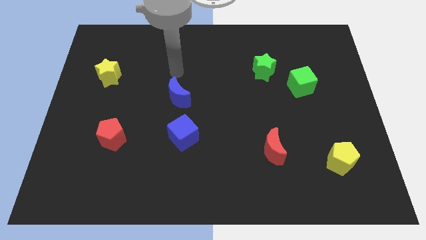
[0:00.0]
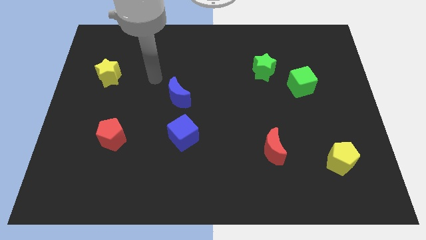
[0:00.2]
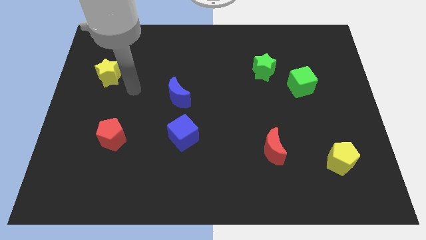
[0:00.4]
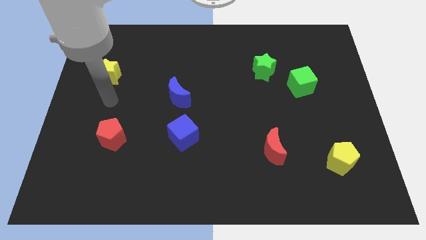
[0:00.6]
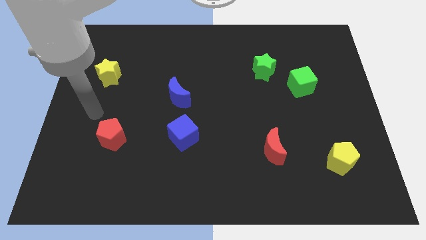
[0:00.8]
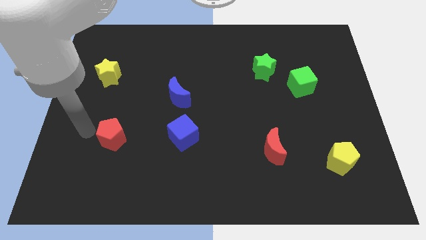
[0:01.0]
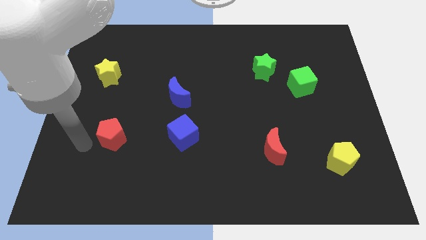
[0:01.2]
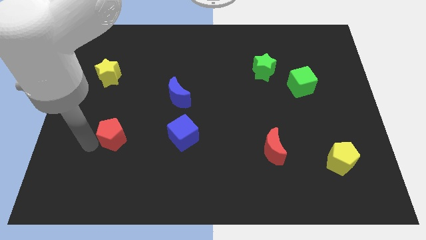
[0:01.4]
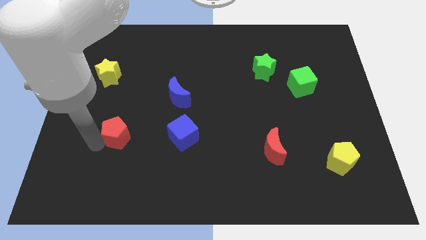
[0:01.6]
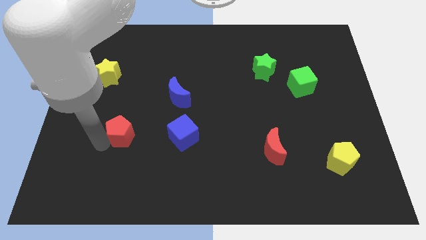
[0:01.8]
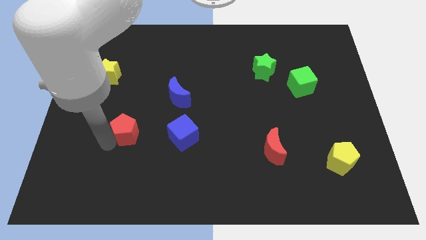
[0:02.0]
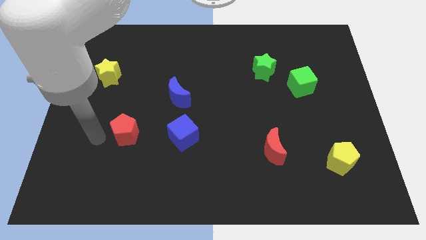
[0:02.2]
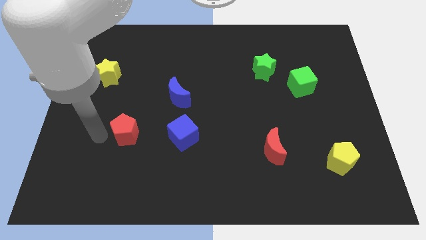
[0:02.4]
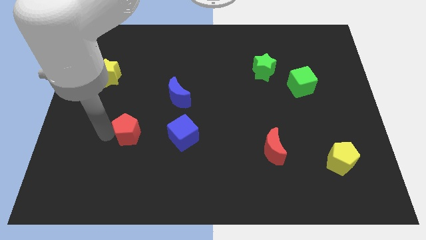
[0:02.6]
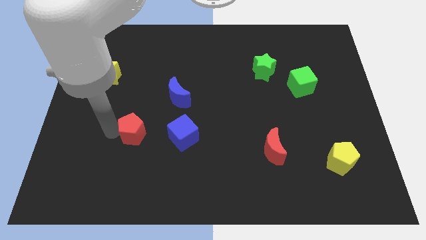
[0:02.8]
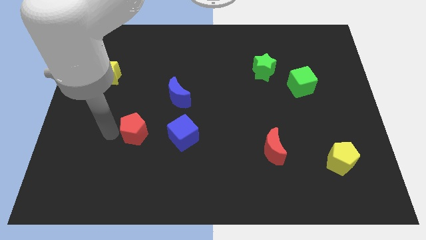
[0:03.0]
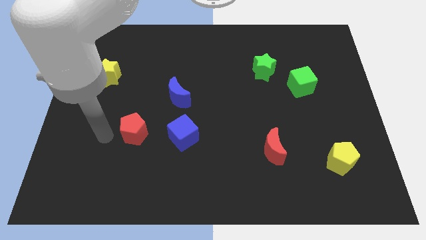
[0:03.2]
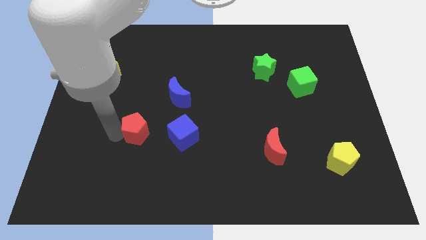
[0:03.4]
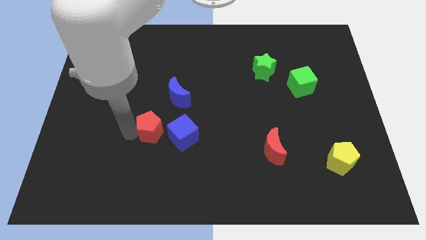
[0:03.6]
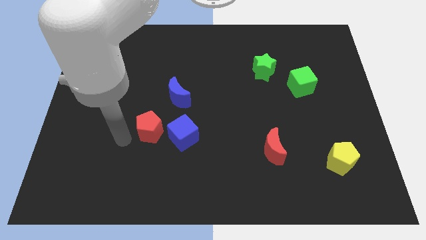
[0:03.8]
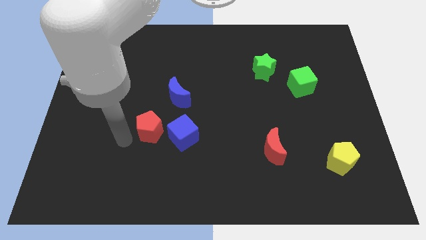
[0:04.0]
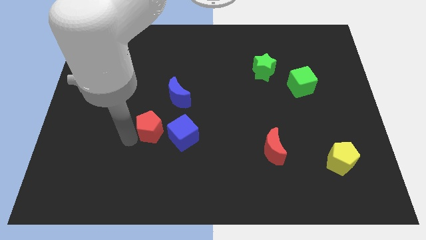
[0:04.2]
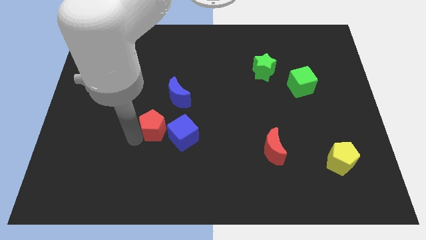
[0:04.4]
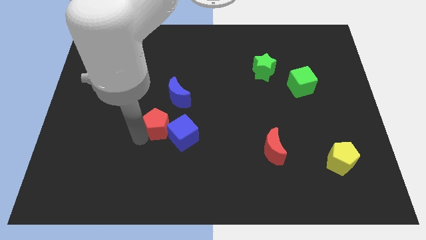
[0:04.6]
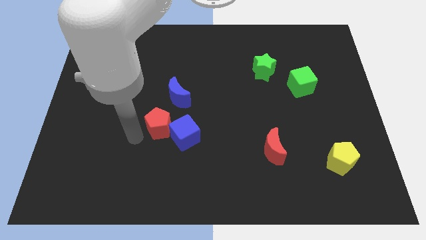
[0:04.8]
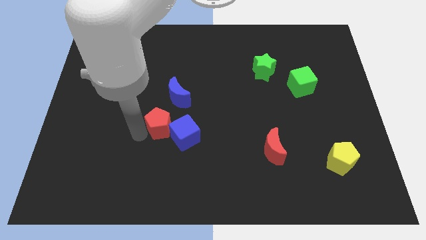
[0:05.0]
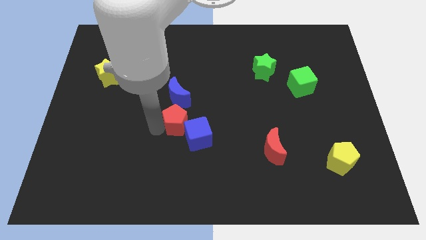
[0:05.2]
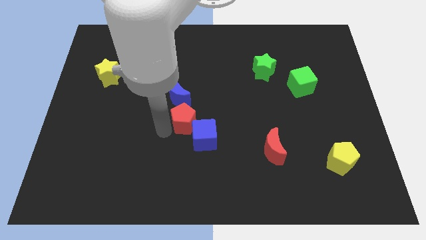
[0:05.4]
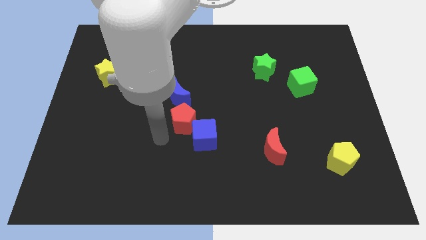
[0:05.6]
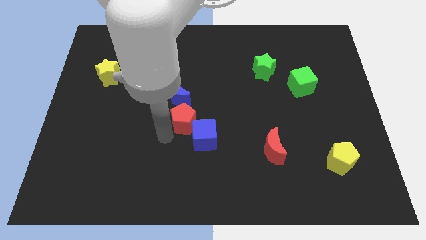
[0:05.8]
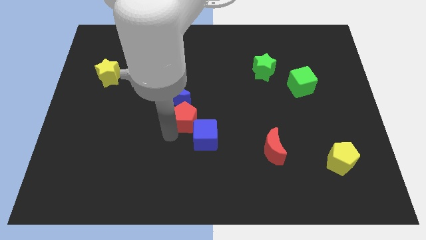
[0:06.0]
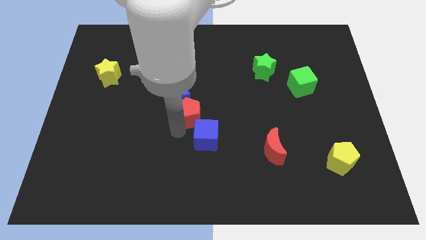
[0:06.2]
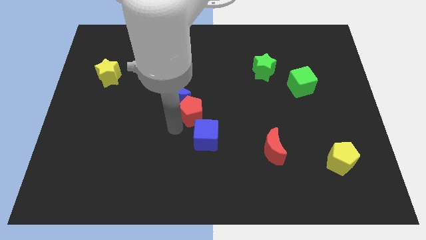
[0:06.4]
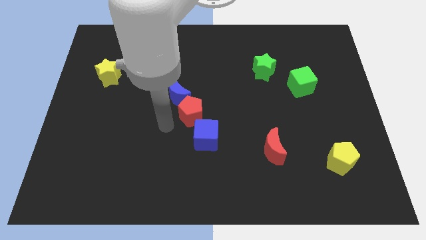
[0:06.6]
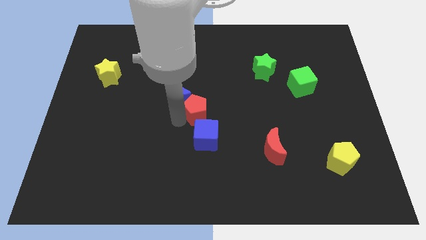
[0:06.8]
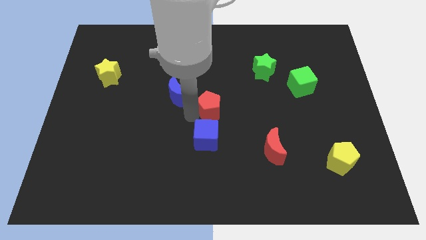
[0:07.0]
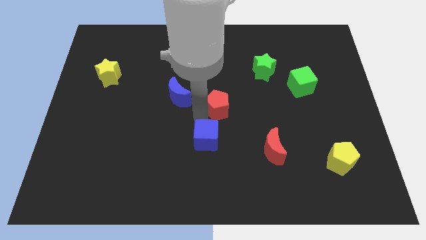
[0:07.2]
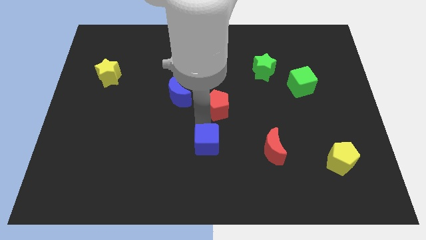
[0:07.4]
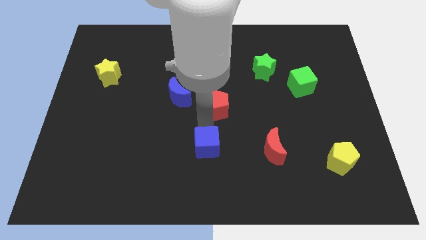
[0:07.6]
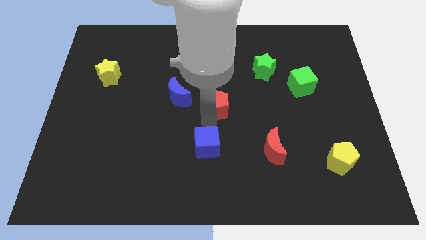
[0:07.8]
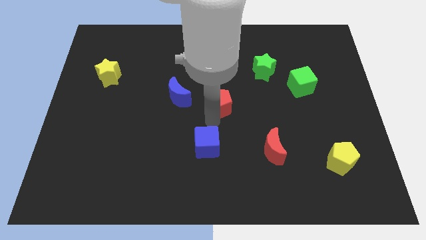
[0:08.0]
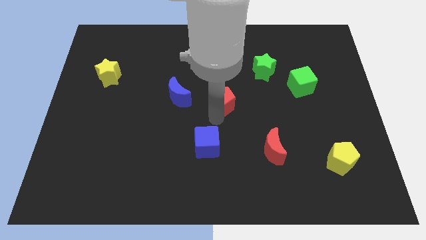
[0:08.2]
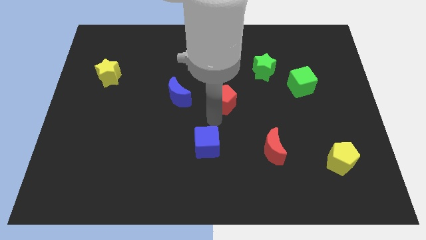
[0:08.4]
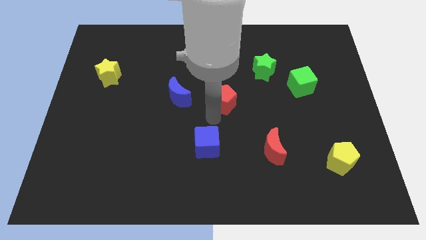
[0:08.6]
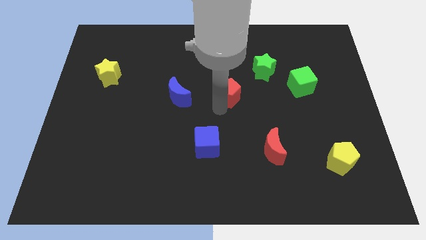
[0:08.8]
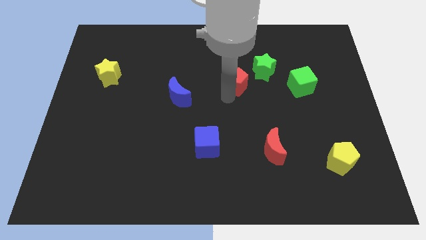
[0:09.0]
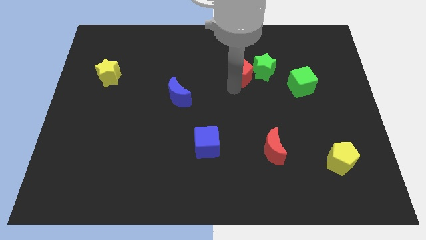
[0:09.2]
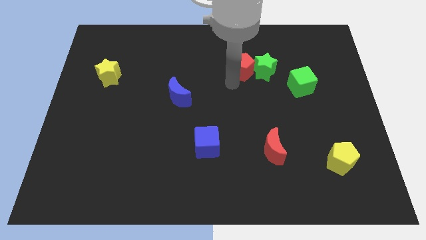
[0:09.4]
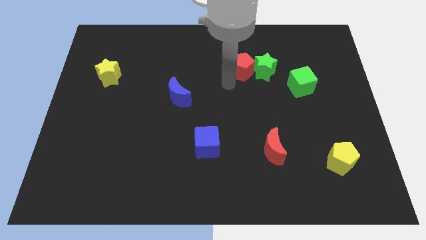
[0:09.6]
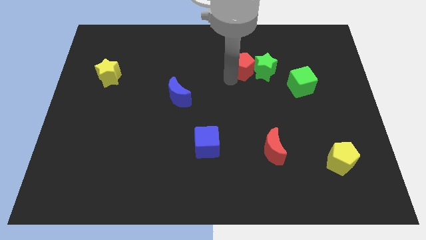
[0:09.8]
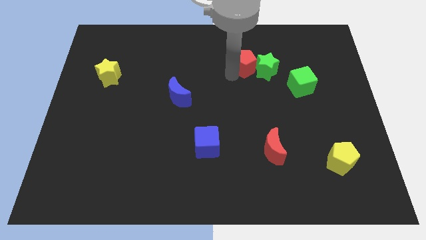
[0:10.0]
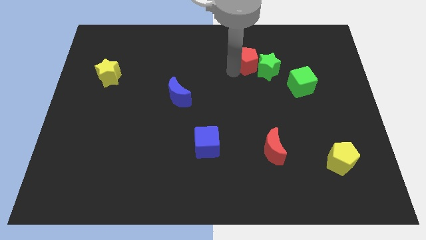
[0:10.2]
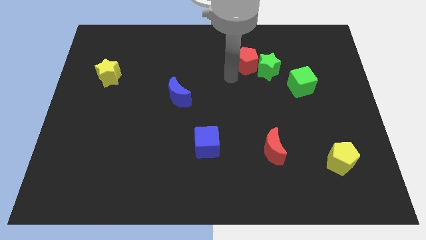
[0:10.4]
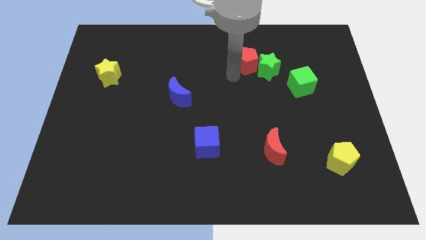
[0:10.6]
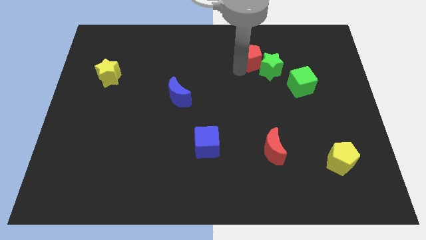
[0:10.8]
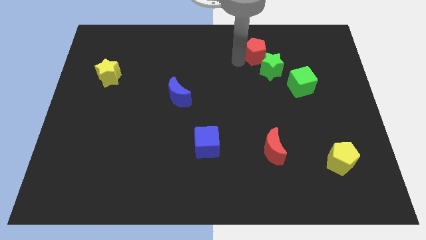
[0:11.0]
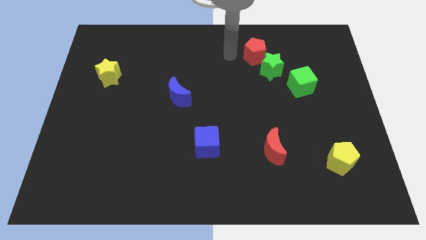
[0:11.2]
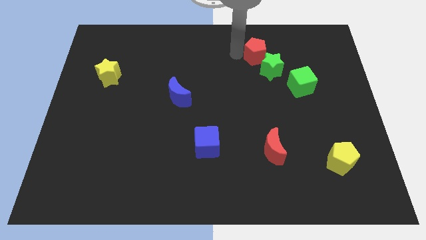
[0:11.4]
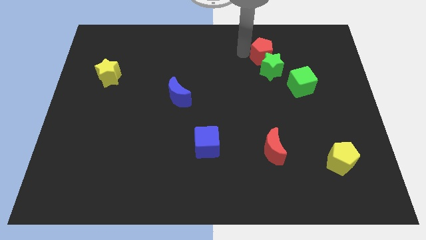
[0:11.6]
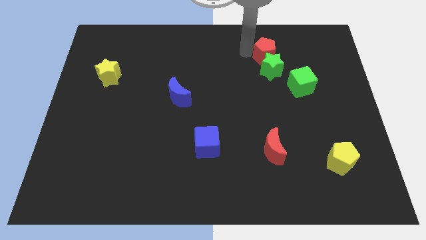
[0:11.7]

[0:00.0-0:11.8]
move the red pentagon to the top right of the green star
